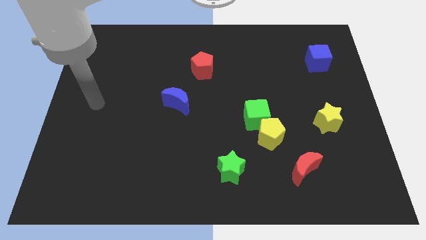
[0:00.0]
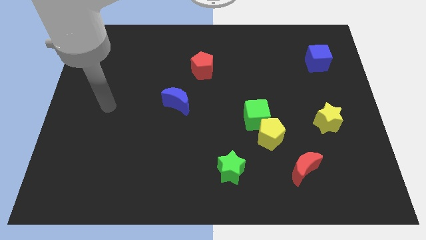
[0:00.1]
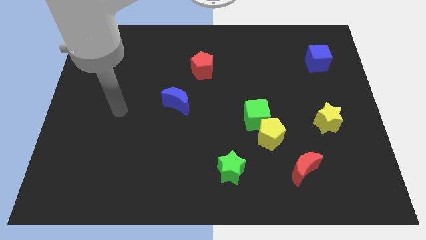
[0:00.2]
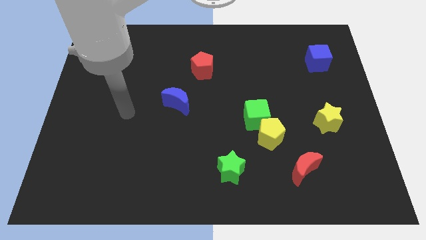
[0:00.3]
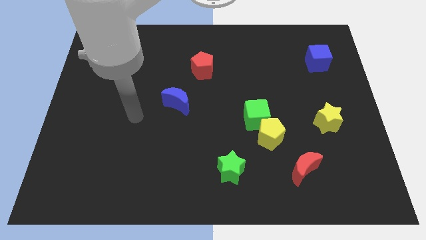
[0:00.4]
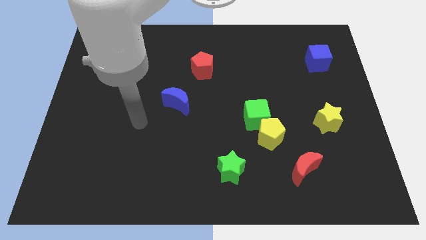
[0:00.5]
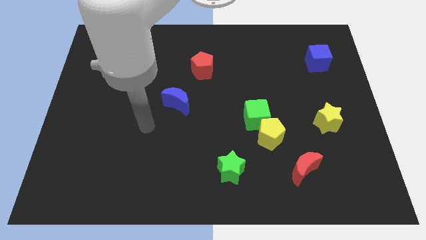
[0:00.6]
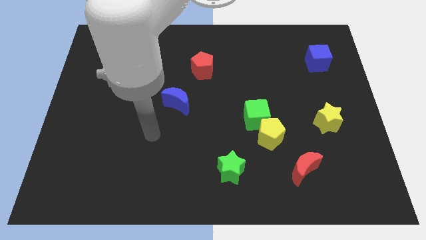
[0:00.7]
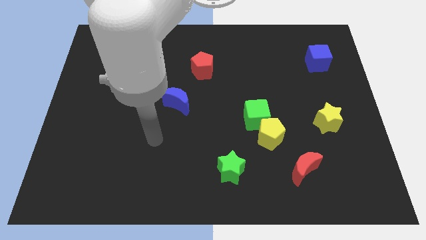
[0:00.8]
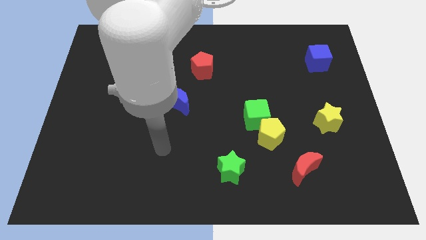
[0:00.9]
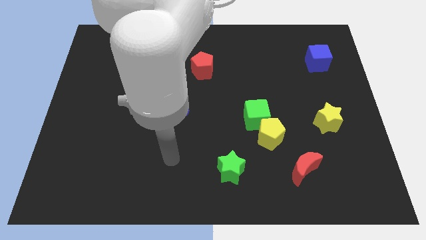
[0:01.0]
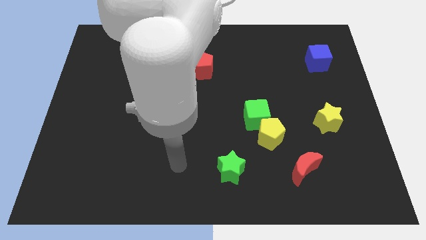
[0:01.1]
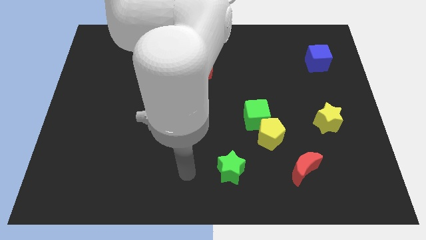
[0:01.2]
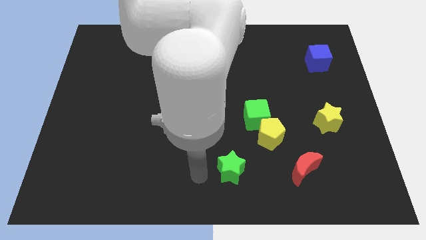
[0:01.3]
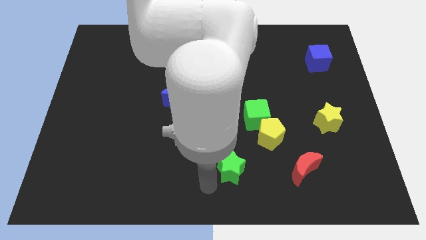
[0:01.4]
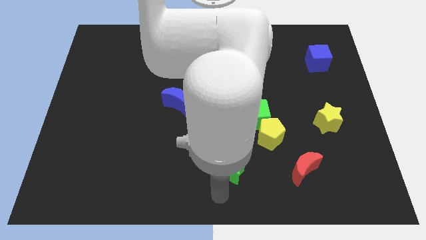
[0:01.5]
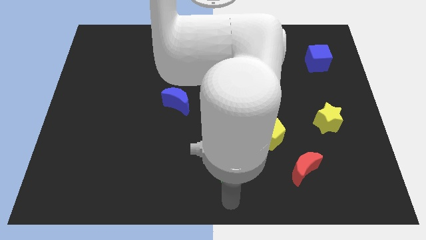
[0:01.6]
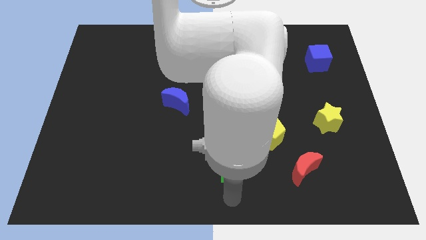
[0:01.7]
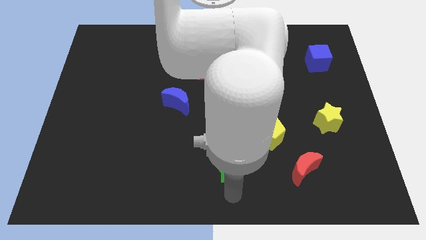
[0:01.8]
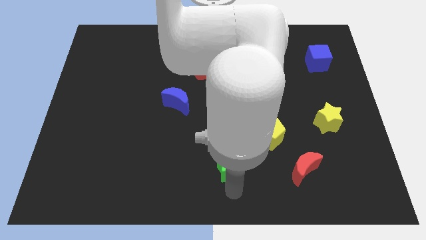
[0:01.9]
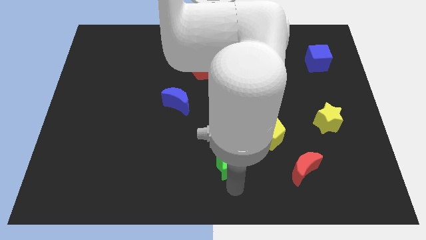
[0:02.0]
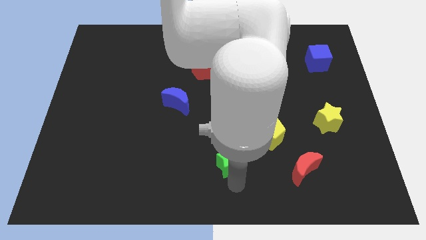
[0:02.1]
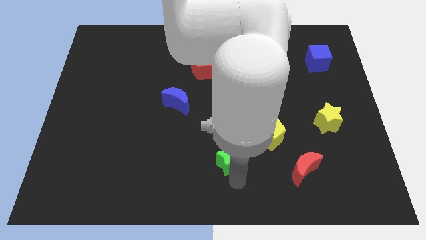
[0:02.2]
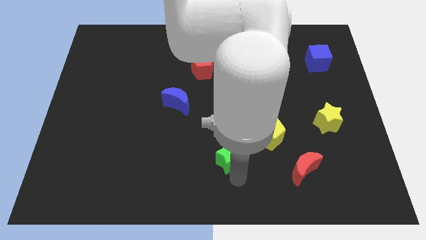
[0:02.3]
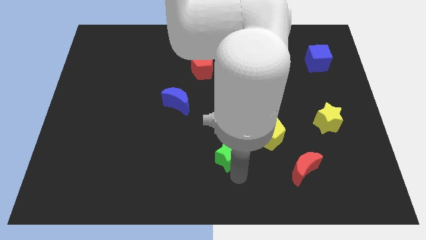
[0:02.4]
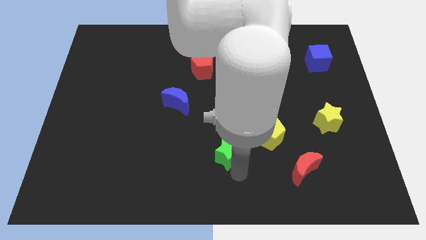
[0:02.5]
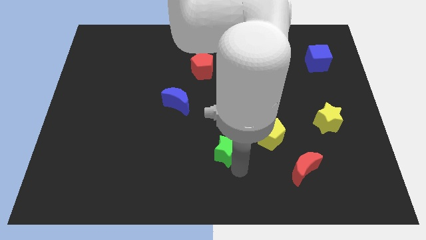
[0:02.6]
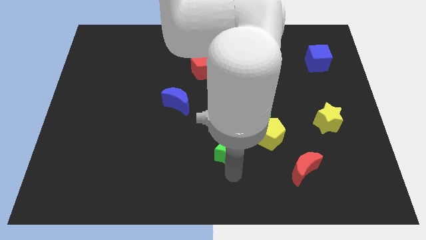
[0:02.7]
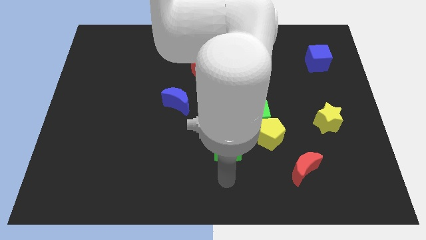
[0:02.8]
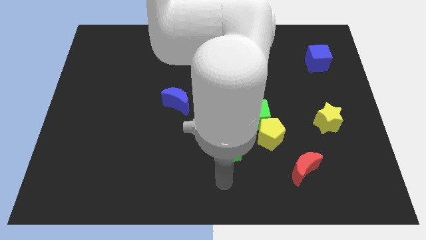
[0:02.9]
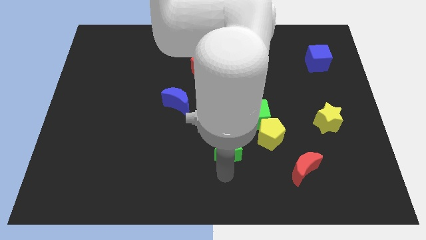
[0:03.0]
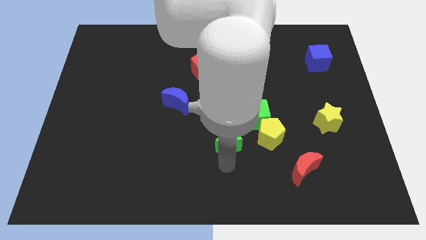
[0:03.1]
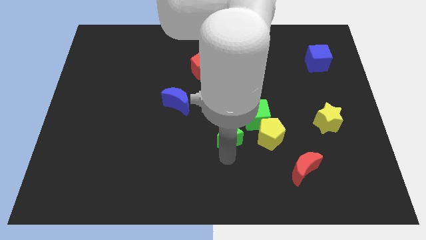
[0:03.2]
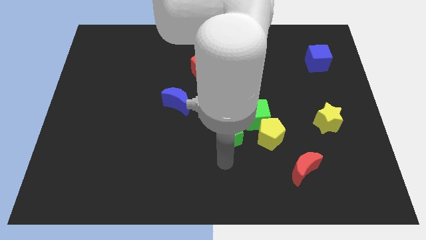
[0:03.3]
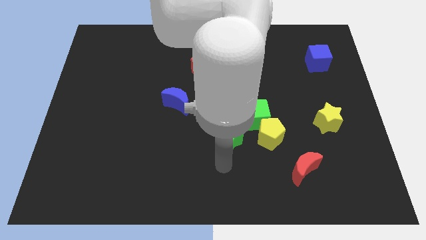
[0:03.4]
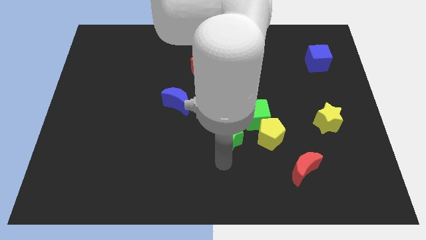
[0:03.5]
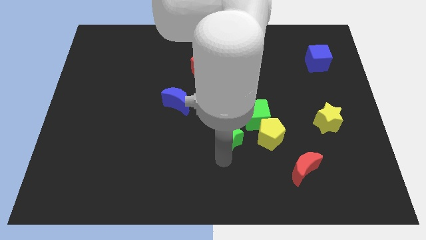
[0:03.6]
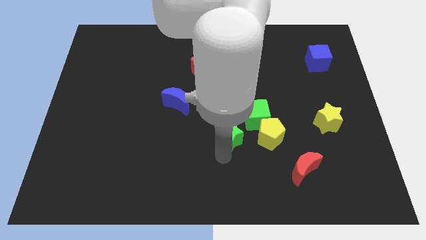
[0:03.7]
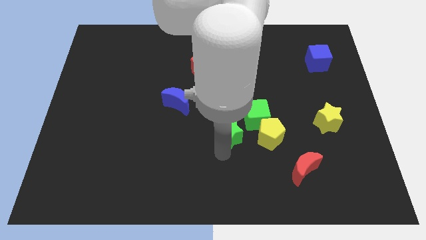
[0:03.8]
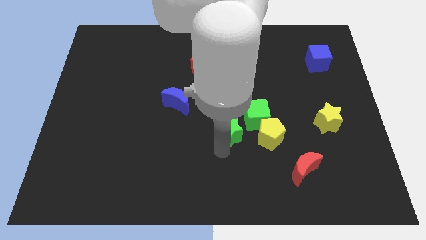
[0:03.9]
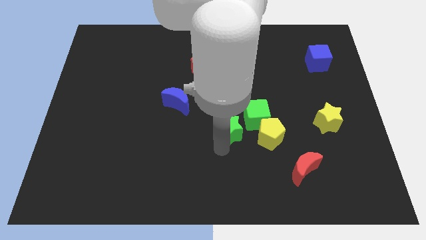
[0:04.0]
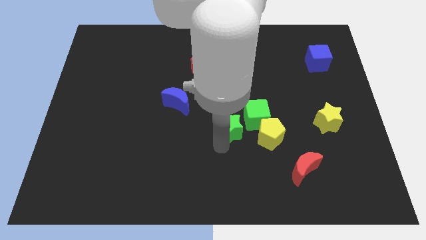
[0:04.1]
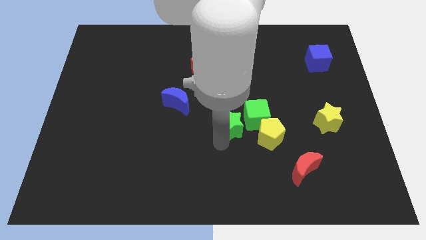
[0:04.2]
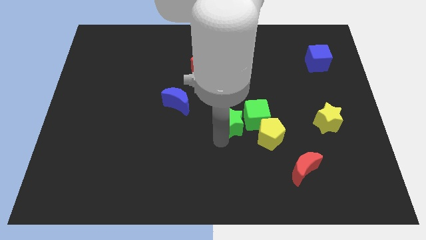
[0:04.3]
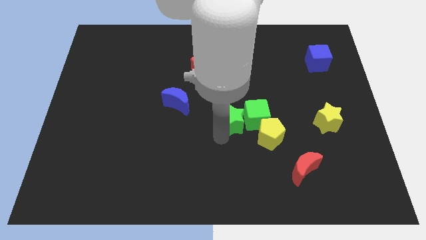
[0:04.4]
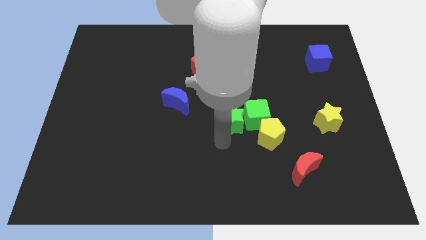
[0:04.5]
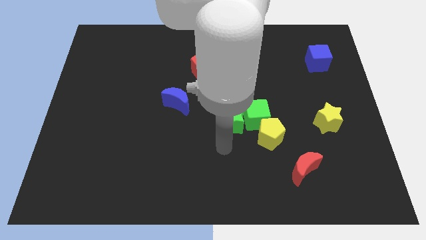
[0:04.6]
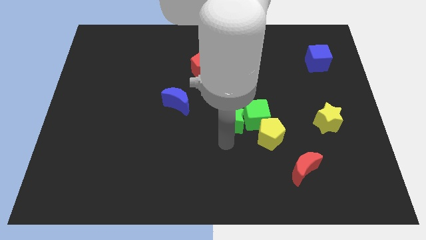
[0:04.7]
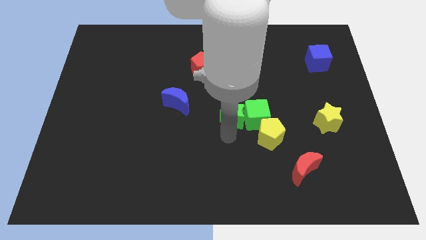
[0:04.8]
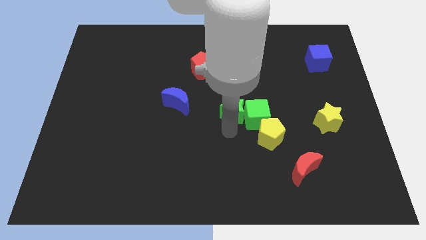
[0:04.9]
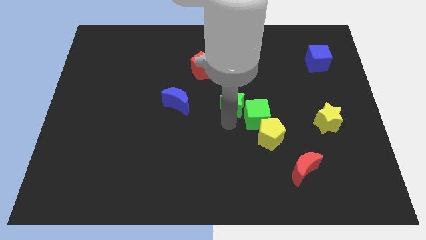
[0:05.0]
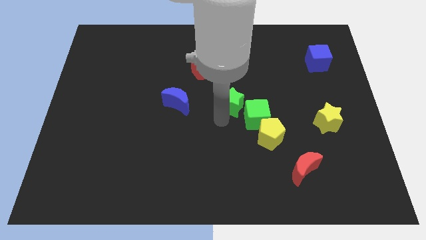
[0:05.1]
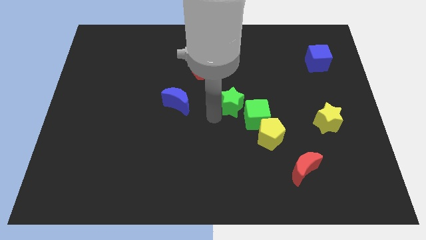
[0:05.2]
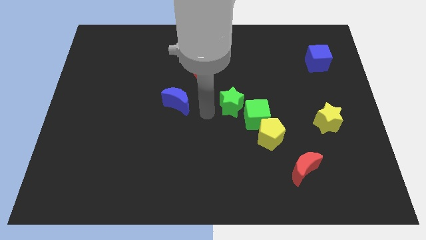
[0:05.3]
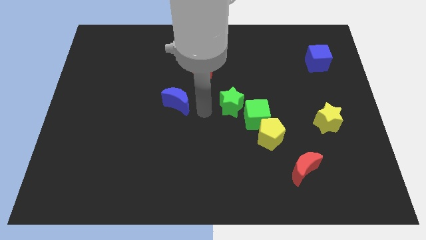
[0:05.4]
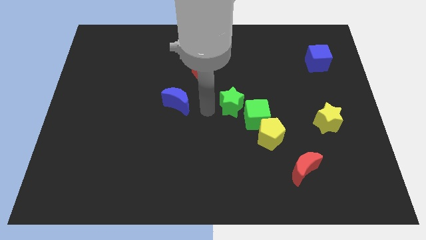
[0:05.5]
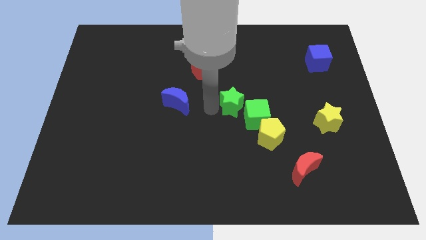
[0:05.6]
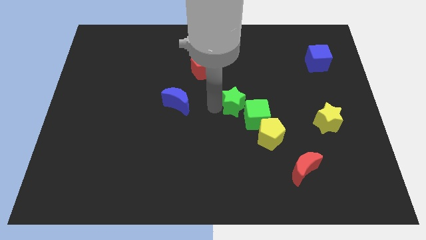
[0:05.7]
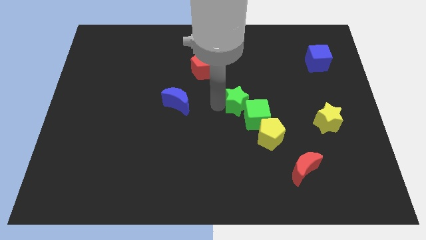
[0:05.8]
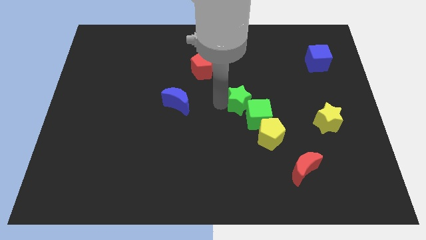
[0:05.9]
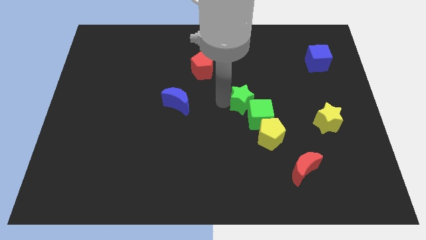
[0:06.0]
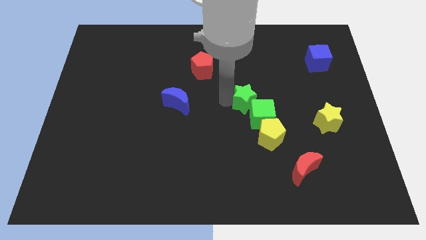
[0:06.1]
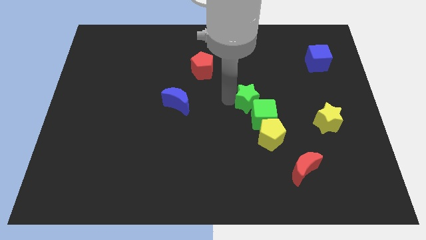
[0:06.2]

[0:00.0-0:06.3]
put the green star above the yellow pentagon
